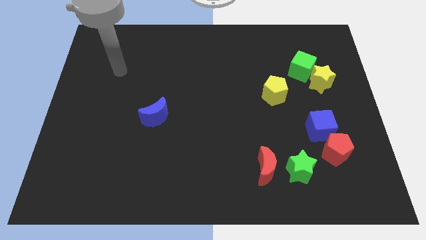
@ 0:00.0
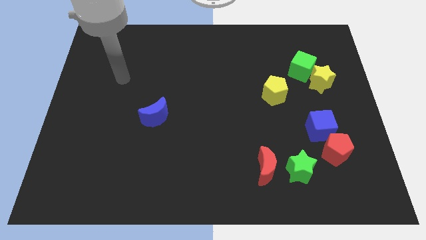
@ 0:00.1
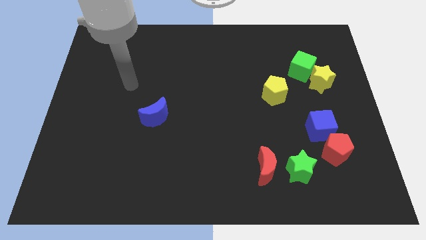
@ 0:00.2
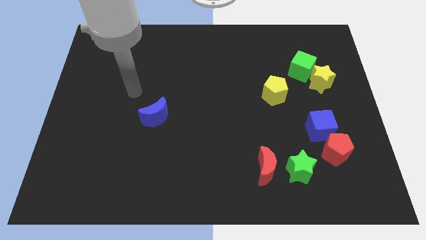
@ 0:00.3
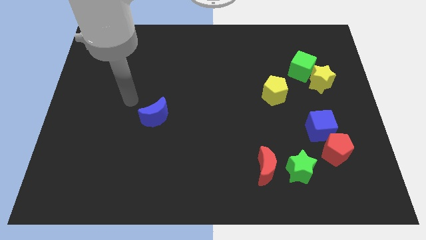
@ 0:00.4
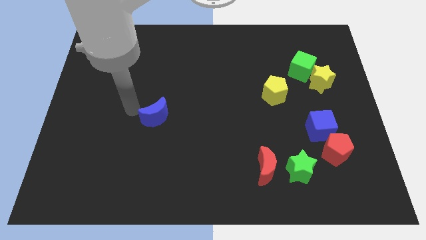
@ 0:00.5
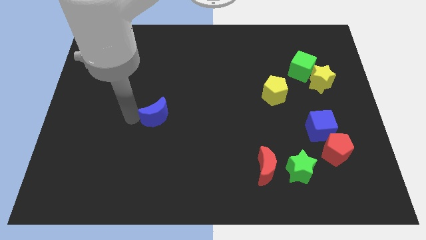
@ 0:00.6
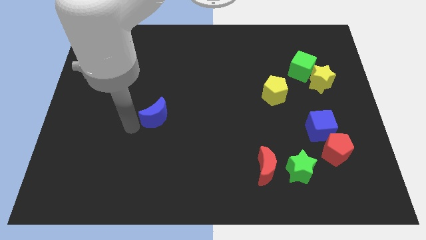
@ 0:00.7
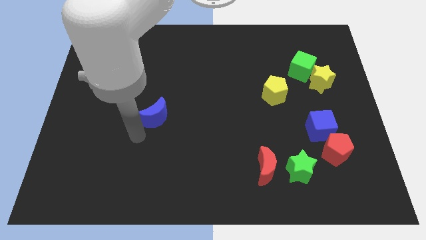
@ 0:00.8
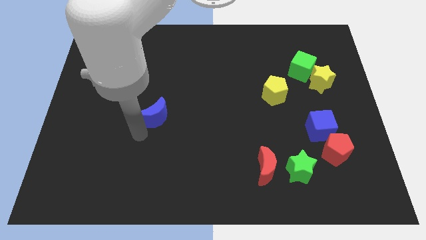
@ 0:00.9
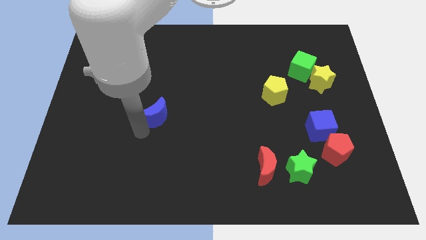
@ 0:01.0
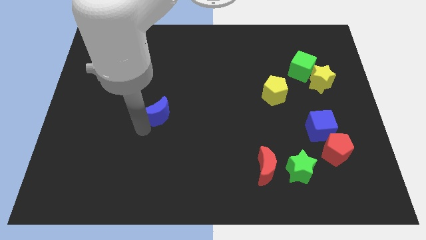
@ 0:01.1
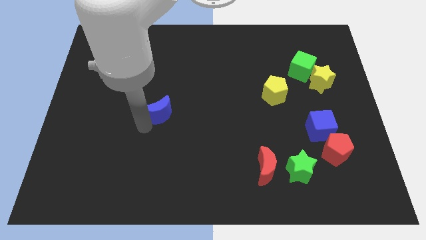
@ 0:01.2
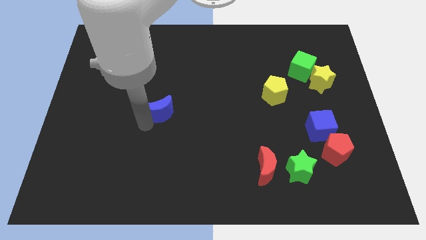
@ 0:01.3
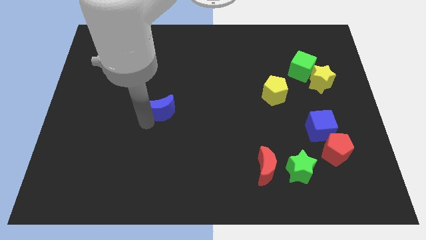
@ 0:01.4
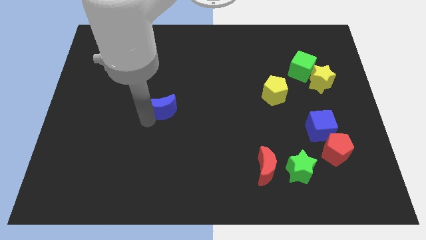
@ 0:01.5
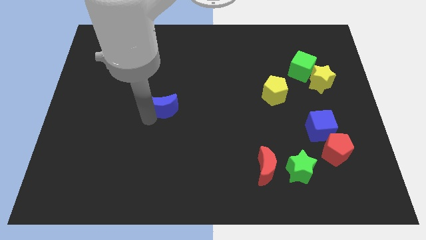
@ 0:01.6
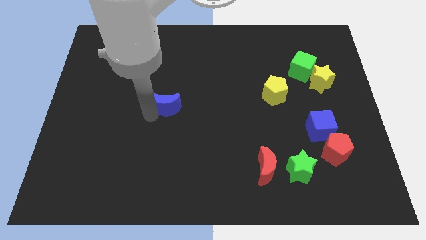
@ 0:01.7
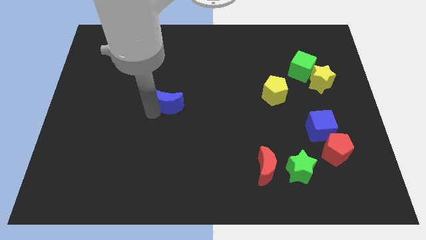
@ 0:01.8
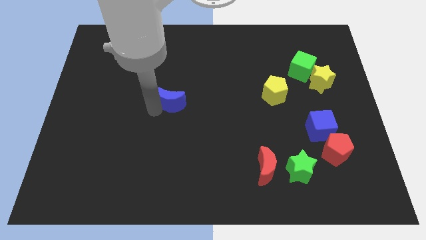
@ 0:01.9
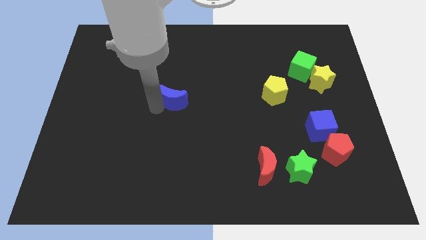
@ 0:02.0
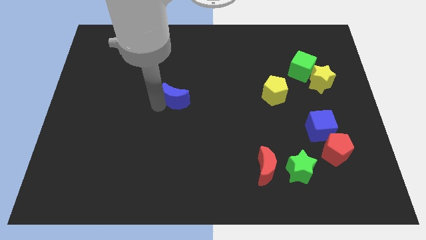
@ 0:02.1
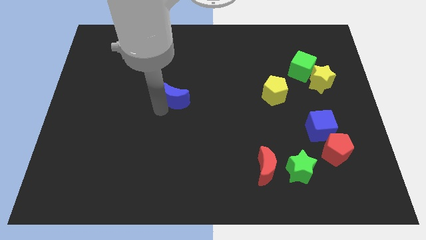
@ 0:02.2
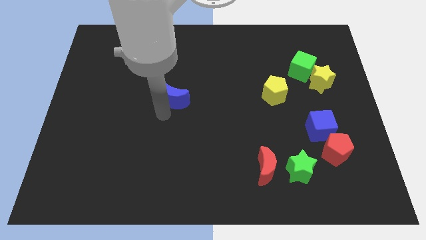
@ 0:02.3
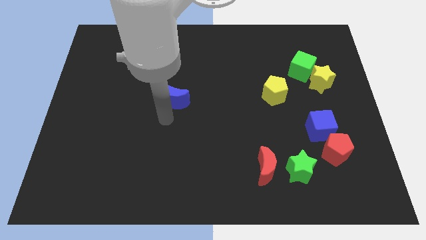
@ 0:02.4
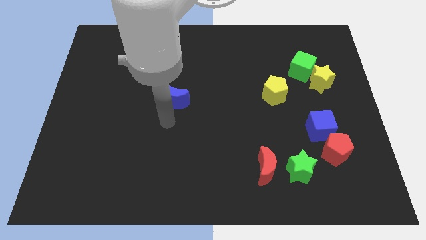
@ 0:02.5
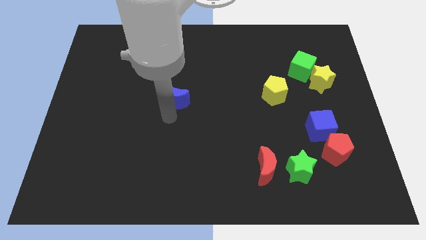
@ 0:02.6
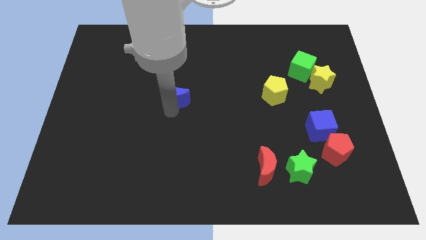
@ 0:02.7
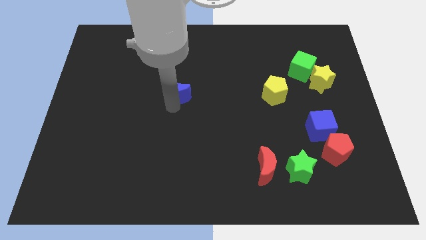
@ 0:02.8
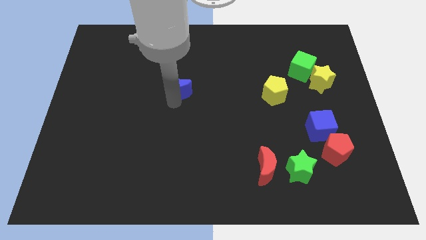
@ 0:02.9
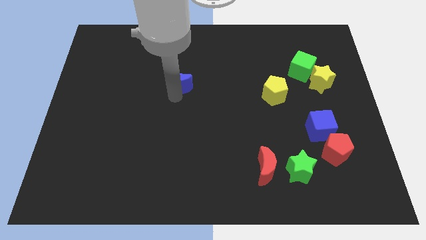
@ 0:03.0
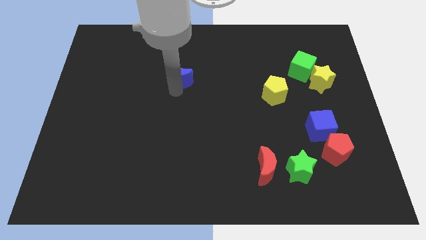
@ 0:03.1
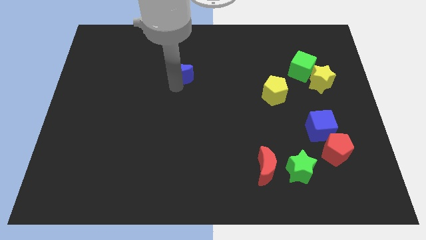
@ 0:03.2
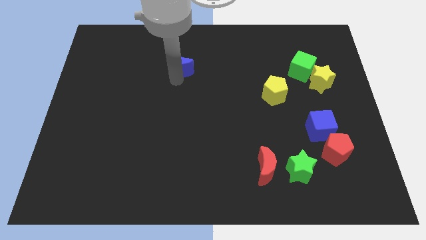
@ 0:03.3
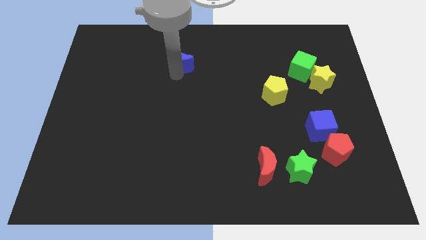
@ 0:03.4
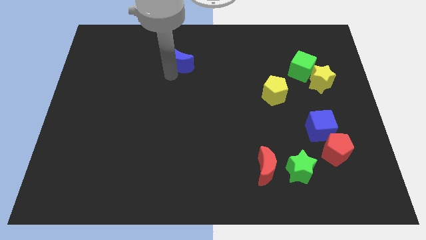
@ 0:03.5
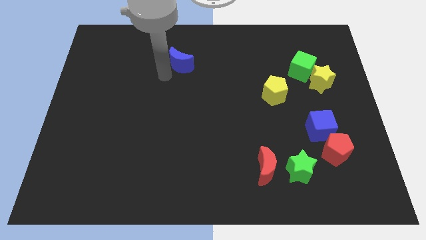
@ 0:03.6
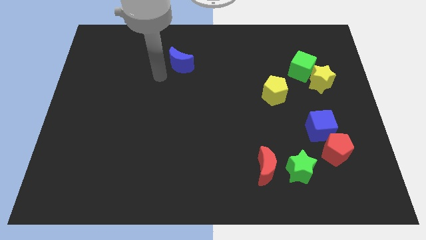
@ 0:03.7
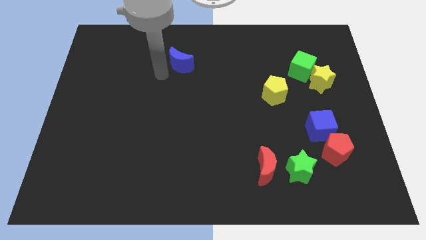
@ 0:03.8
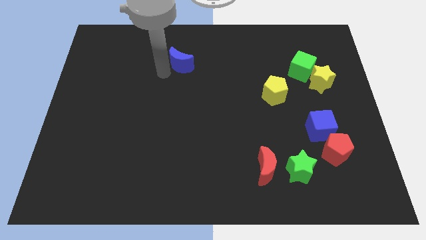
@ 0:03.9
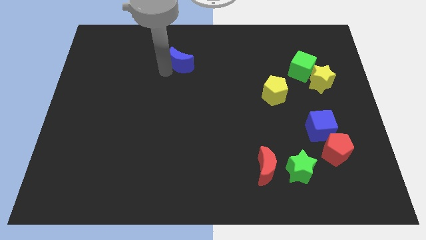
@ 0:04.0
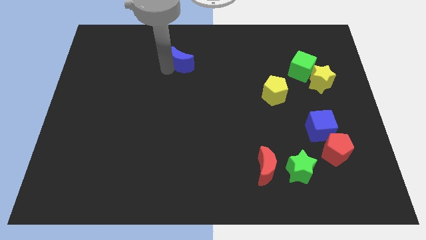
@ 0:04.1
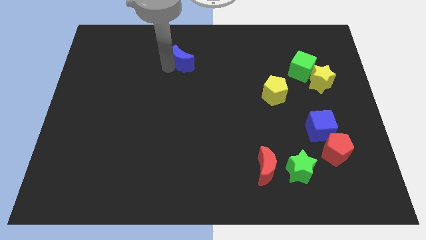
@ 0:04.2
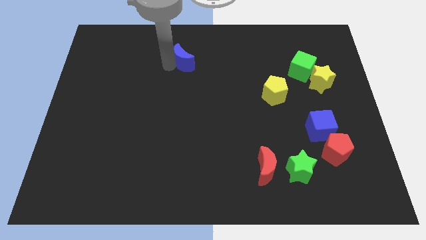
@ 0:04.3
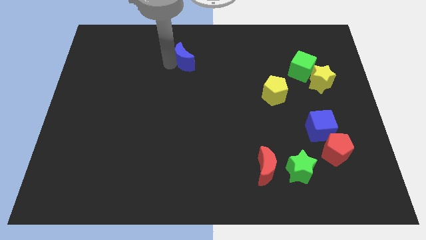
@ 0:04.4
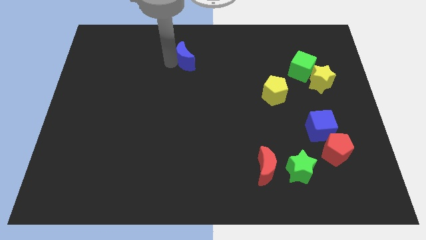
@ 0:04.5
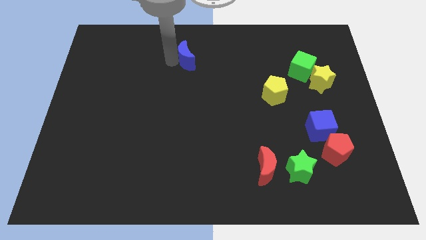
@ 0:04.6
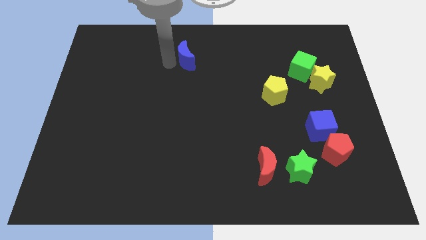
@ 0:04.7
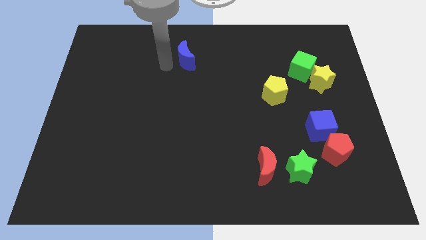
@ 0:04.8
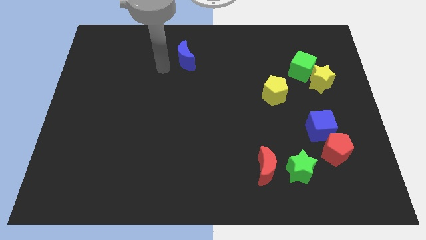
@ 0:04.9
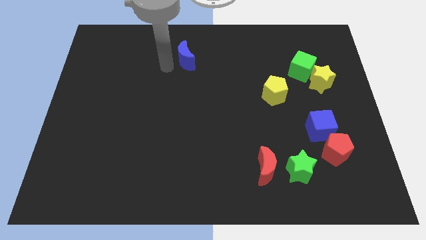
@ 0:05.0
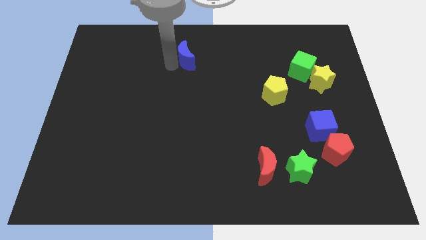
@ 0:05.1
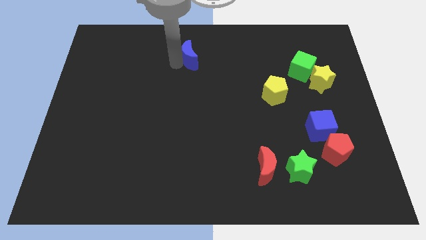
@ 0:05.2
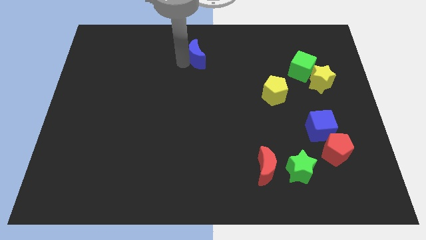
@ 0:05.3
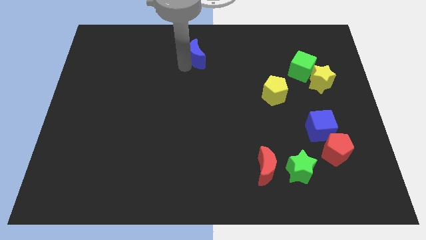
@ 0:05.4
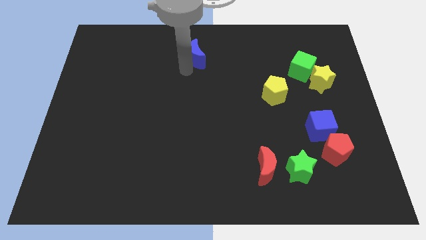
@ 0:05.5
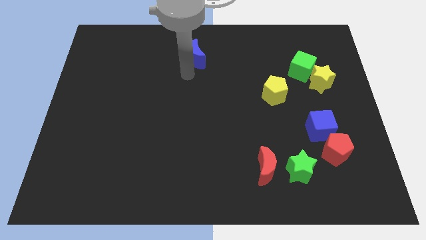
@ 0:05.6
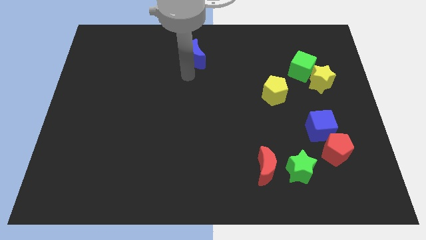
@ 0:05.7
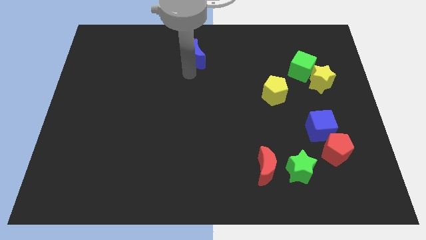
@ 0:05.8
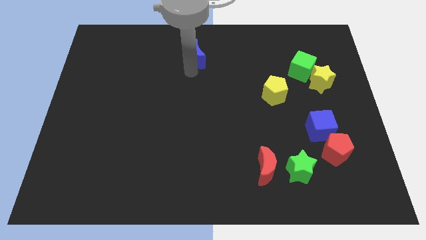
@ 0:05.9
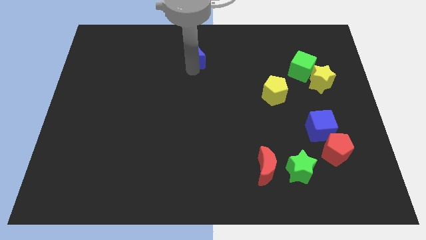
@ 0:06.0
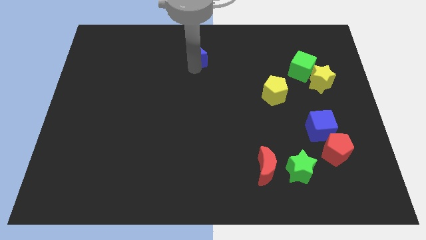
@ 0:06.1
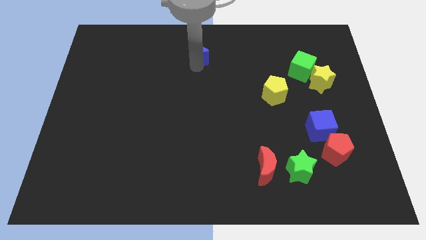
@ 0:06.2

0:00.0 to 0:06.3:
move the blue moon to the top
